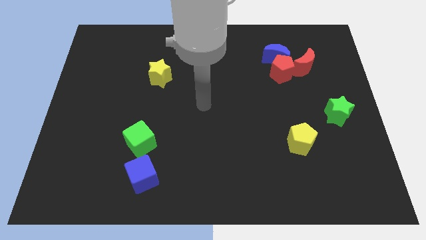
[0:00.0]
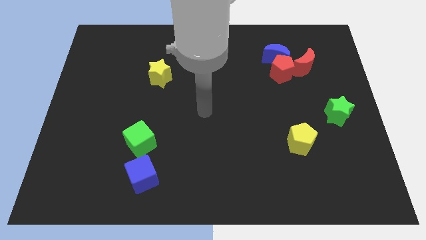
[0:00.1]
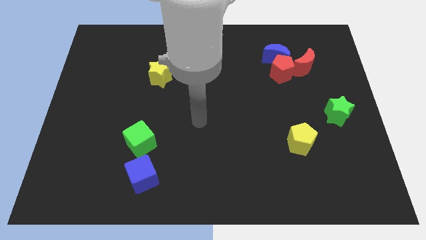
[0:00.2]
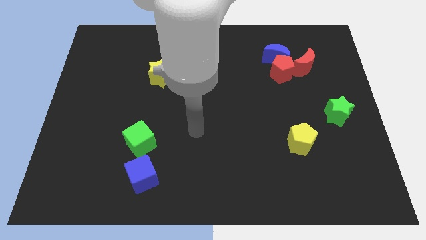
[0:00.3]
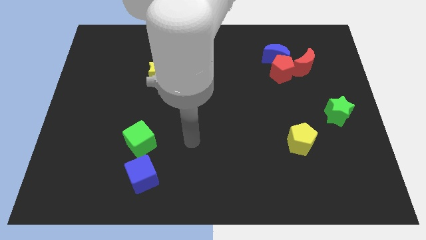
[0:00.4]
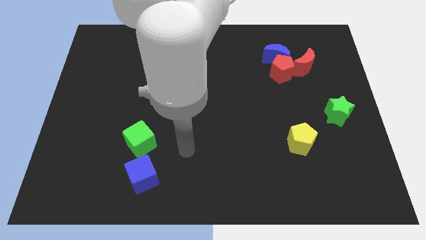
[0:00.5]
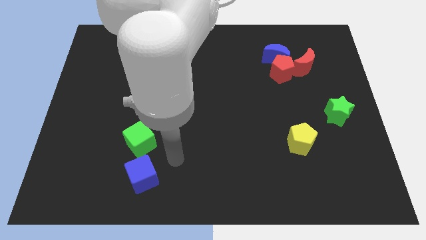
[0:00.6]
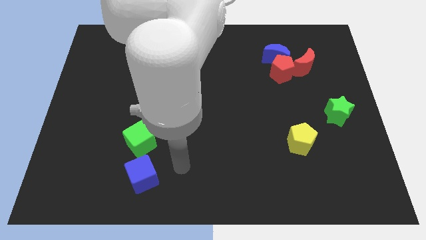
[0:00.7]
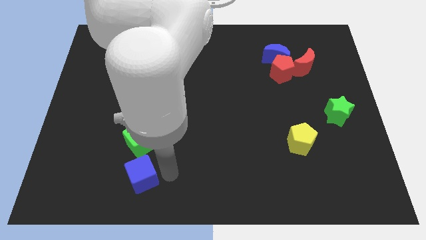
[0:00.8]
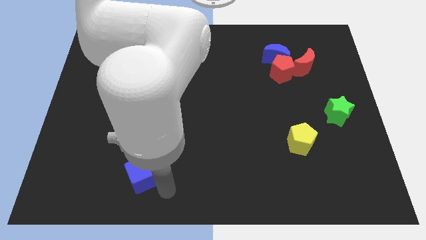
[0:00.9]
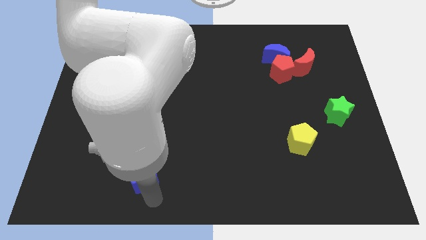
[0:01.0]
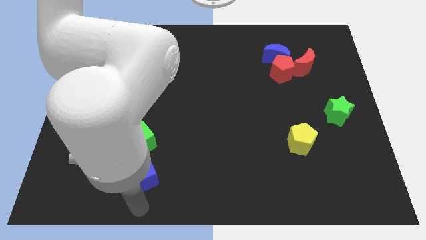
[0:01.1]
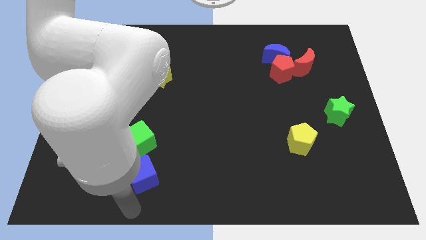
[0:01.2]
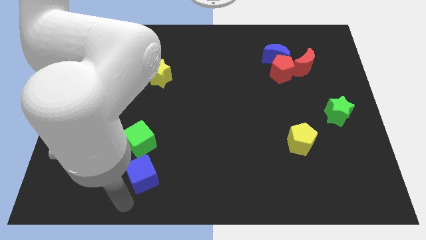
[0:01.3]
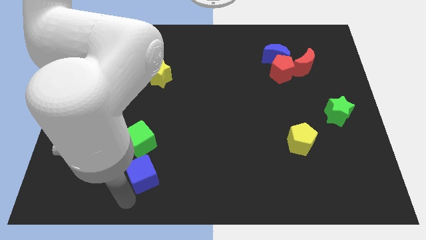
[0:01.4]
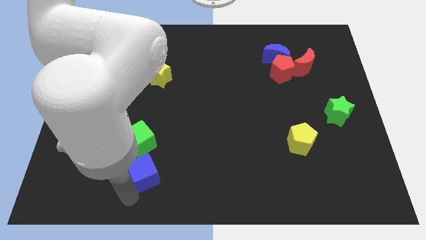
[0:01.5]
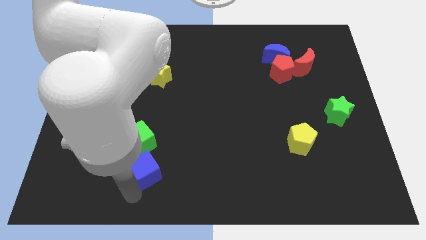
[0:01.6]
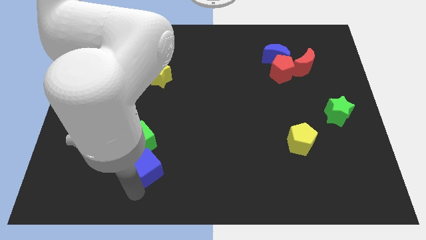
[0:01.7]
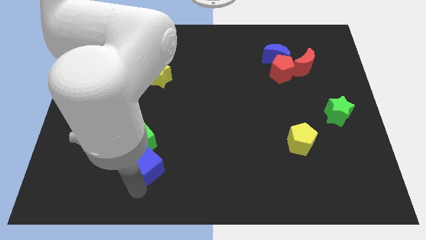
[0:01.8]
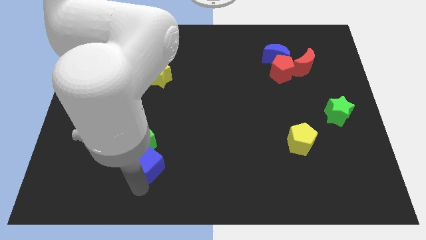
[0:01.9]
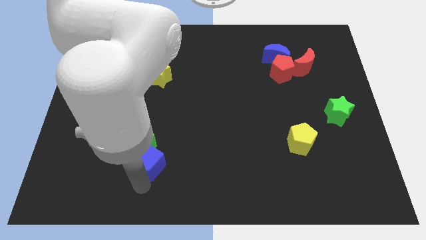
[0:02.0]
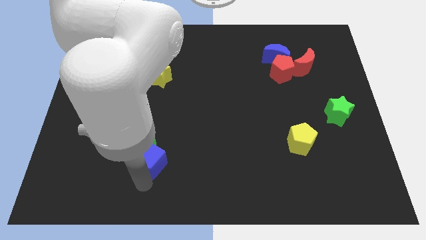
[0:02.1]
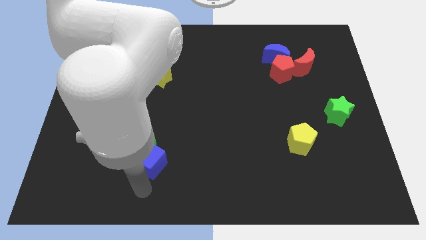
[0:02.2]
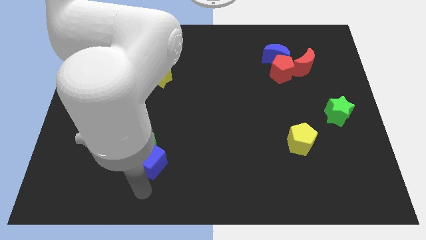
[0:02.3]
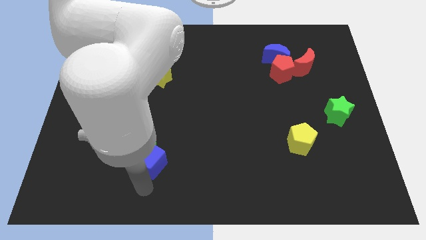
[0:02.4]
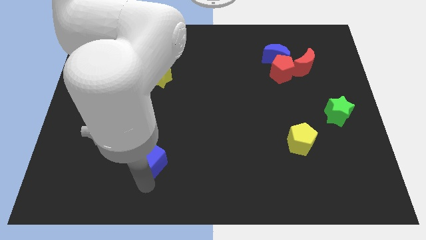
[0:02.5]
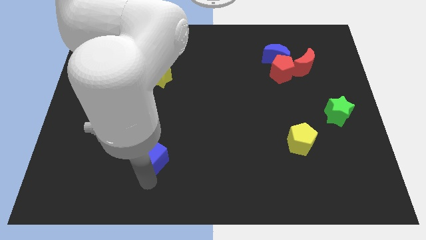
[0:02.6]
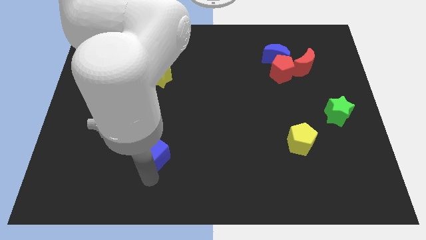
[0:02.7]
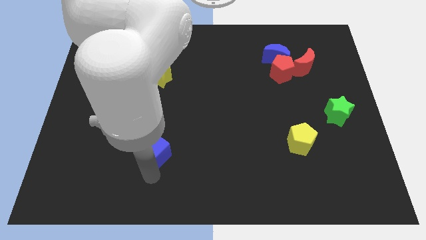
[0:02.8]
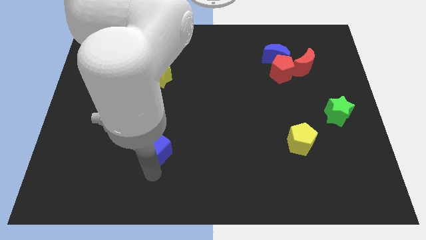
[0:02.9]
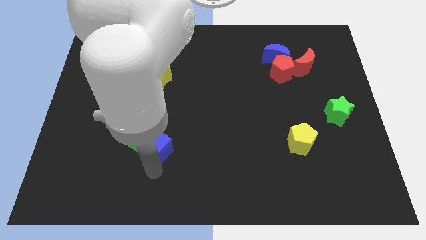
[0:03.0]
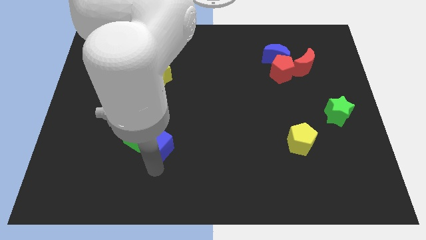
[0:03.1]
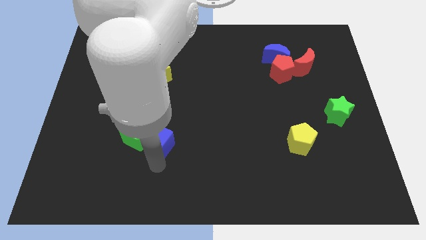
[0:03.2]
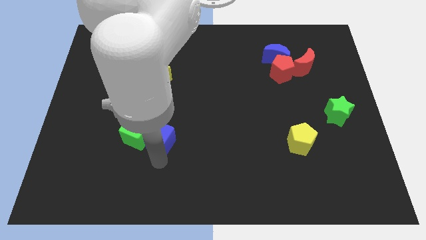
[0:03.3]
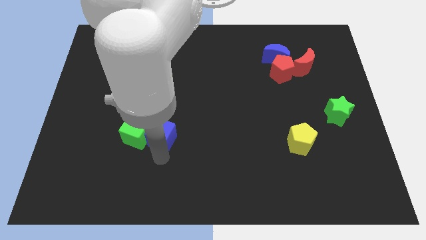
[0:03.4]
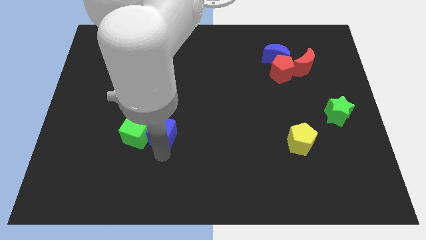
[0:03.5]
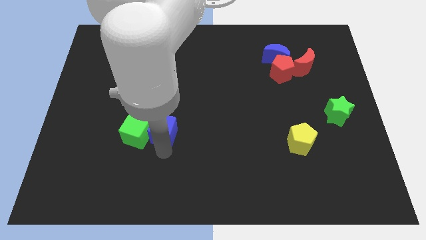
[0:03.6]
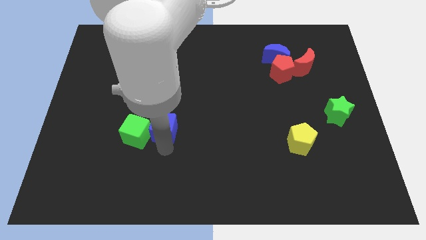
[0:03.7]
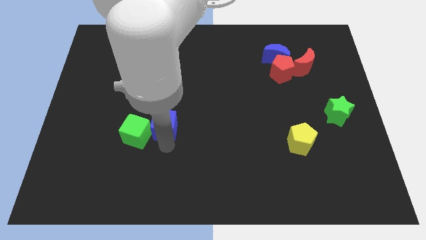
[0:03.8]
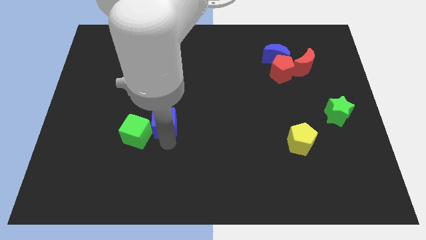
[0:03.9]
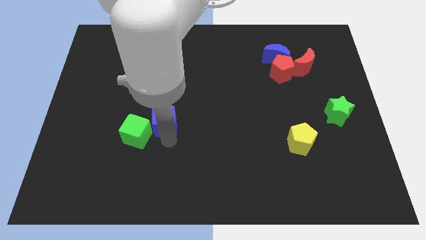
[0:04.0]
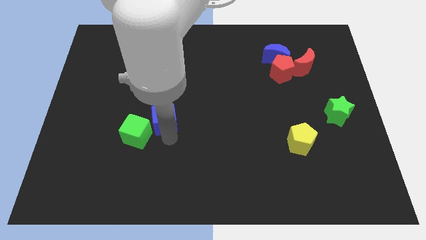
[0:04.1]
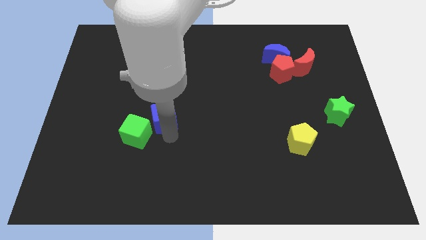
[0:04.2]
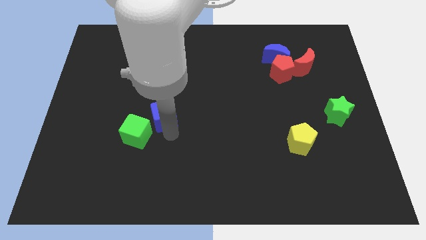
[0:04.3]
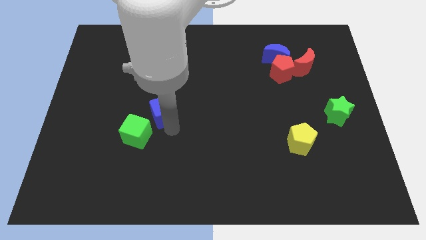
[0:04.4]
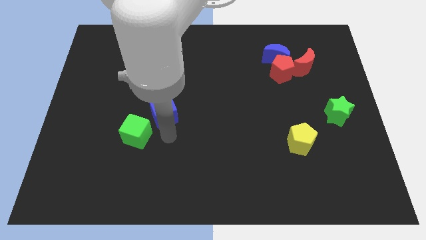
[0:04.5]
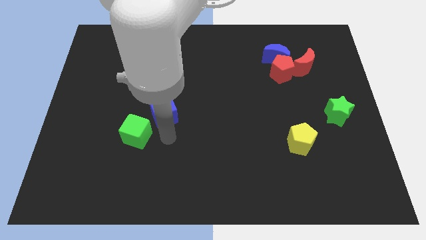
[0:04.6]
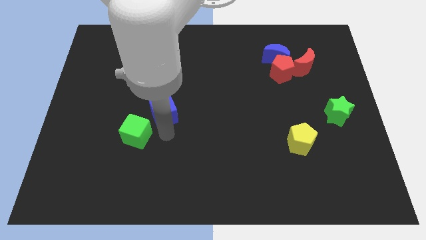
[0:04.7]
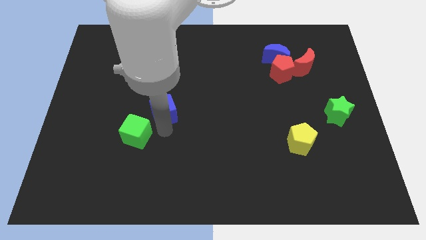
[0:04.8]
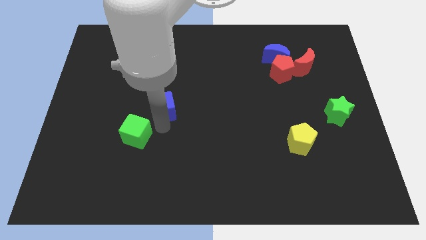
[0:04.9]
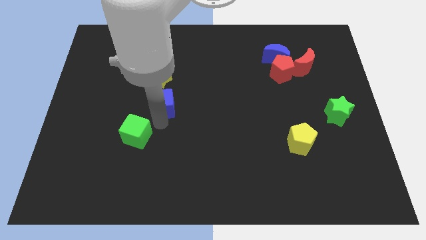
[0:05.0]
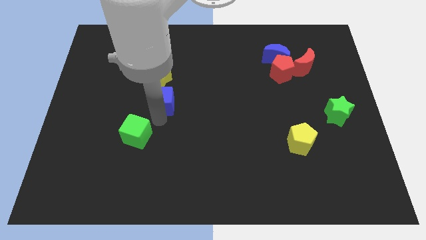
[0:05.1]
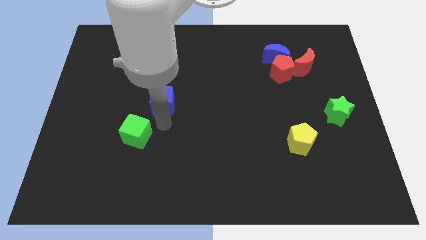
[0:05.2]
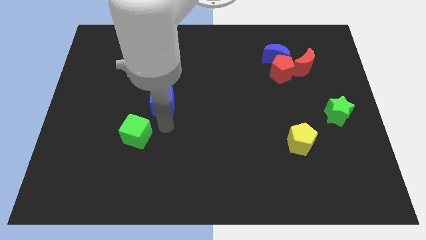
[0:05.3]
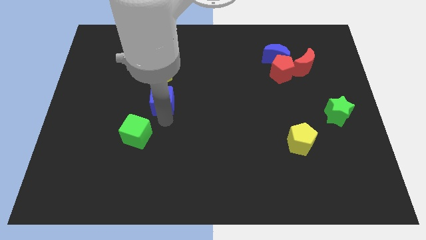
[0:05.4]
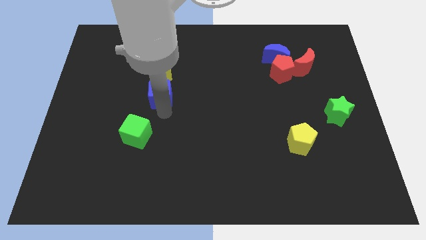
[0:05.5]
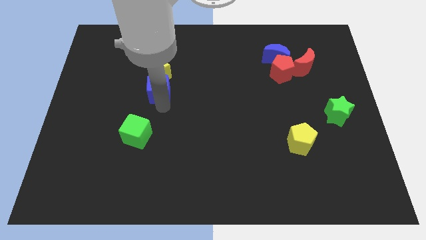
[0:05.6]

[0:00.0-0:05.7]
slide the blue cube close to the yellow star
